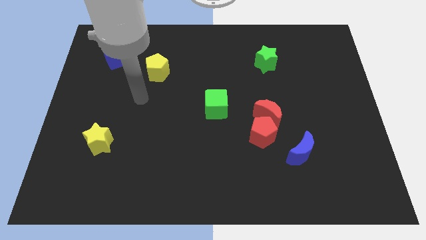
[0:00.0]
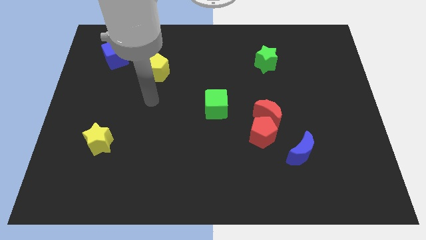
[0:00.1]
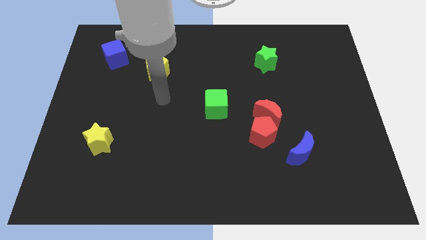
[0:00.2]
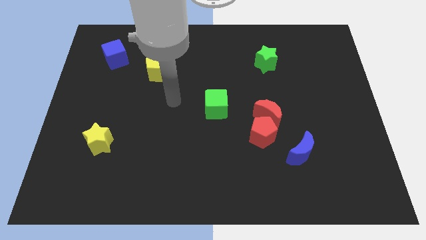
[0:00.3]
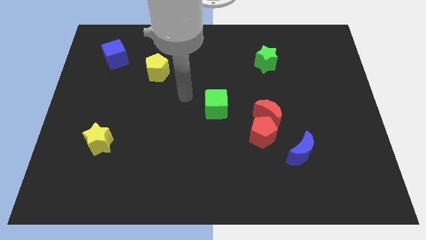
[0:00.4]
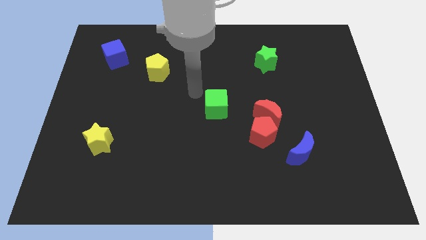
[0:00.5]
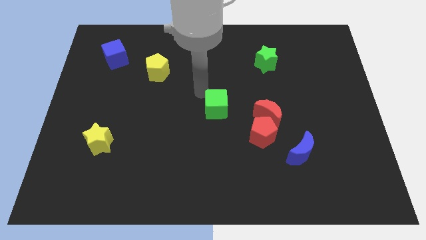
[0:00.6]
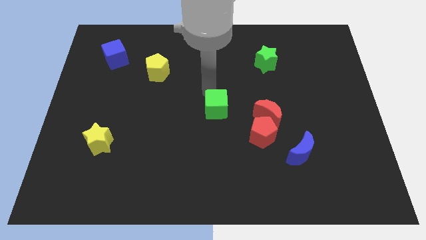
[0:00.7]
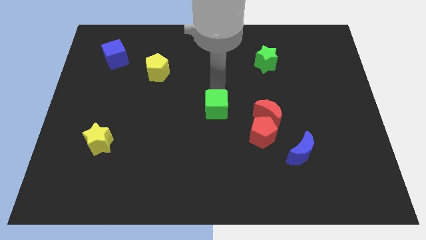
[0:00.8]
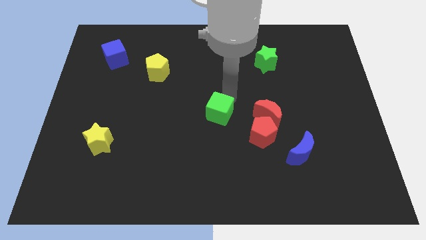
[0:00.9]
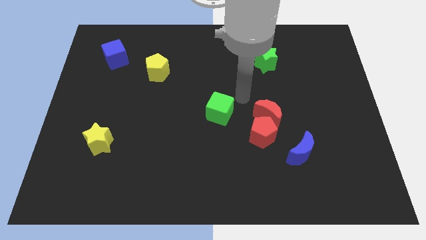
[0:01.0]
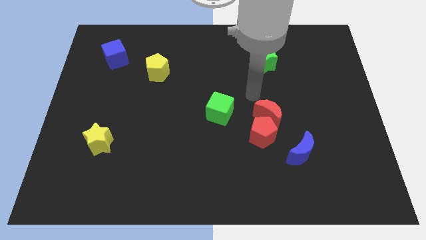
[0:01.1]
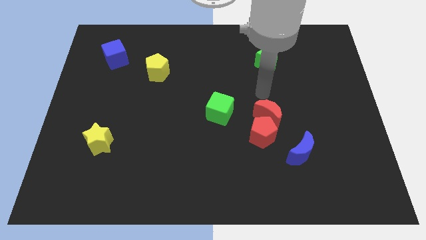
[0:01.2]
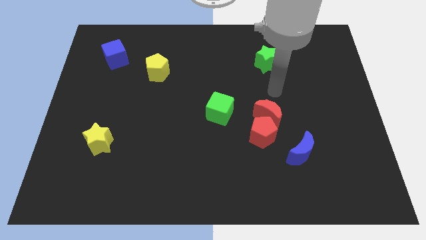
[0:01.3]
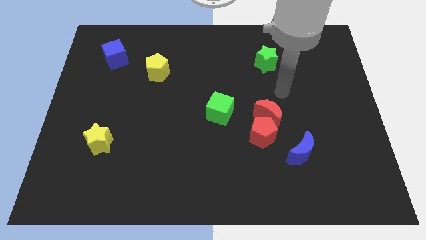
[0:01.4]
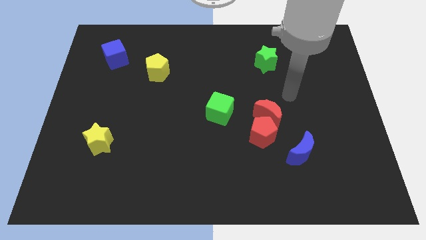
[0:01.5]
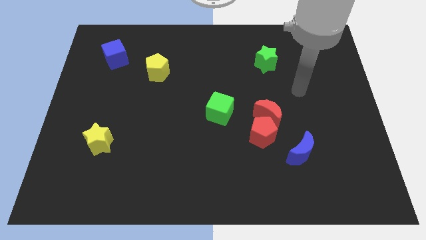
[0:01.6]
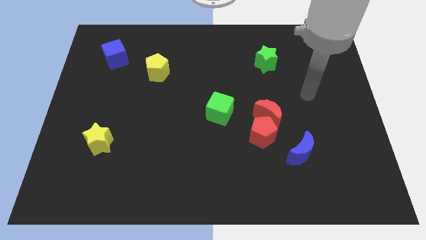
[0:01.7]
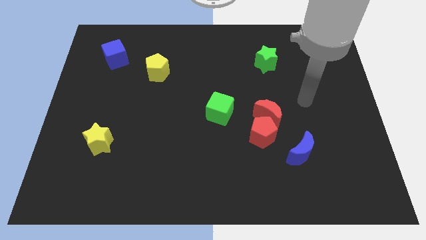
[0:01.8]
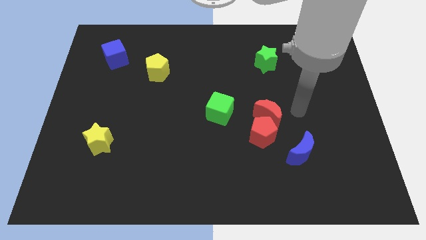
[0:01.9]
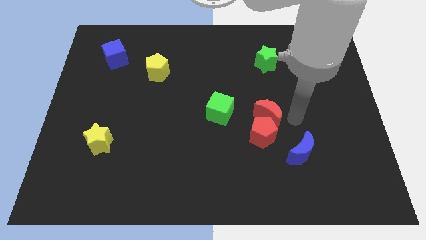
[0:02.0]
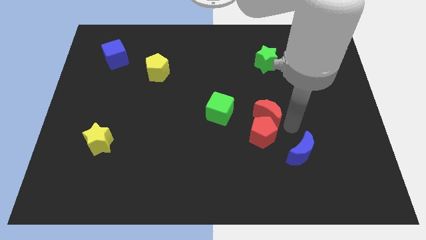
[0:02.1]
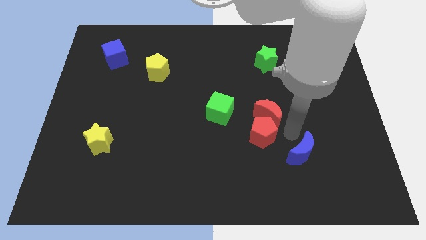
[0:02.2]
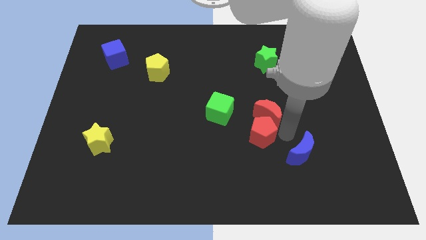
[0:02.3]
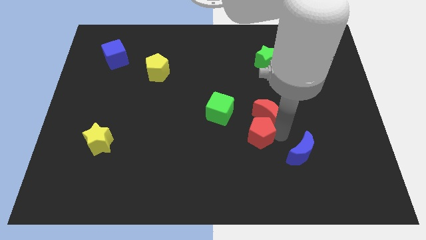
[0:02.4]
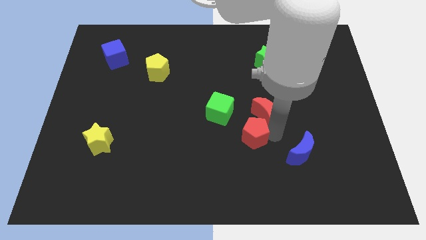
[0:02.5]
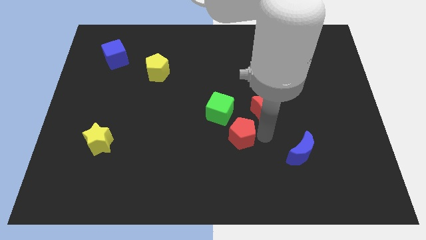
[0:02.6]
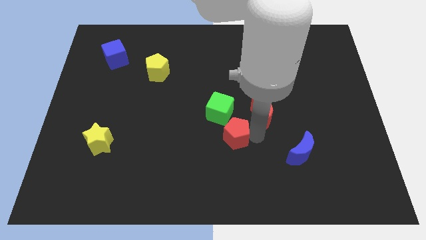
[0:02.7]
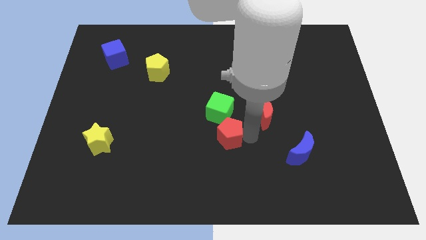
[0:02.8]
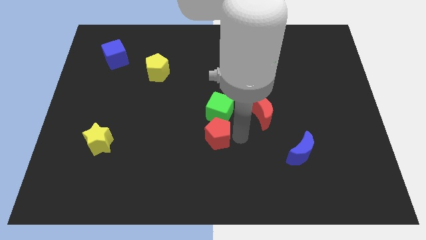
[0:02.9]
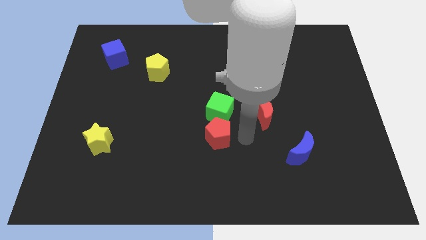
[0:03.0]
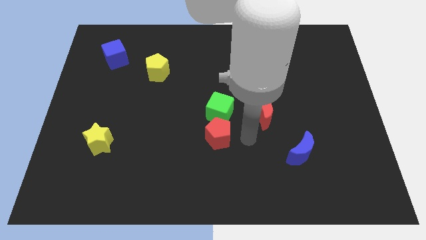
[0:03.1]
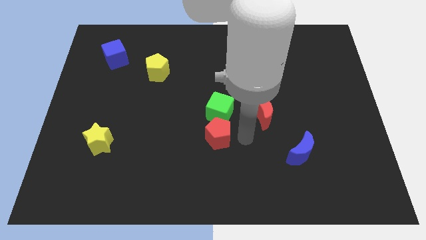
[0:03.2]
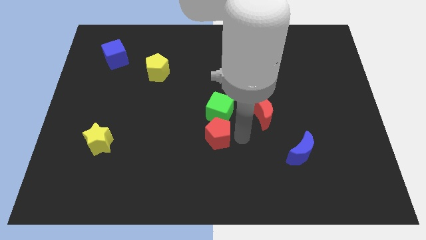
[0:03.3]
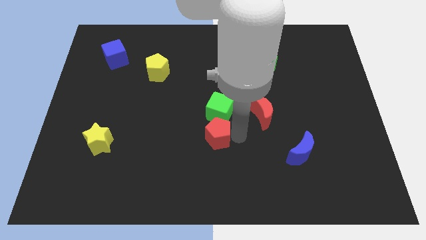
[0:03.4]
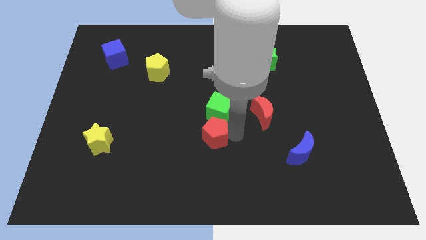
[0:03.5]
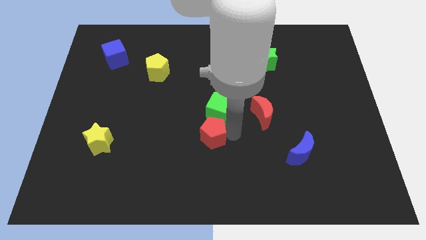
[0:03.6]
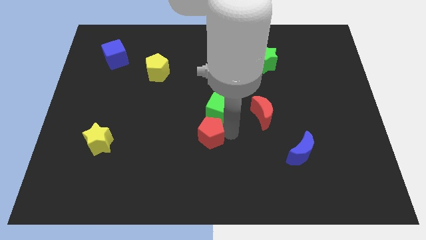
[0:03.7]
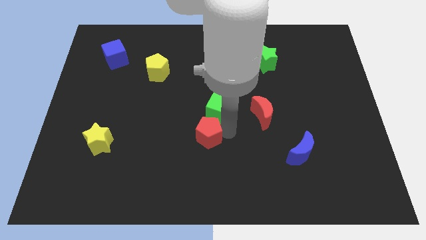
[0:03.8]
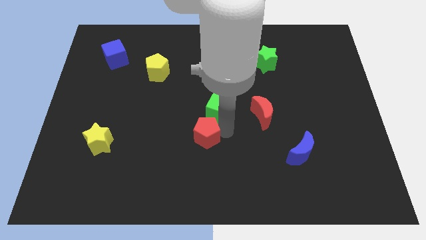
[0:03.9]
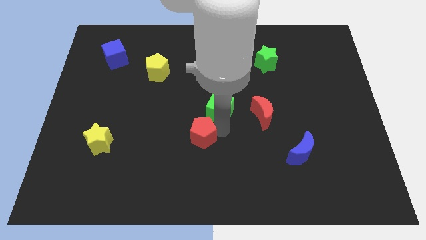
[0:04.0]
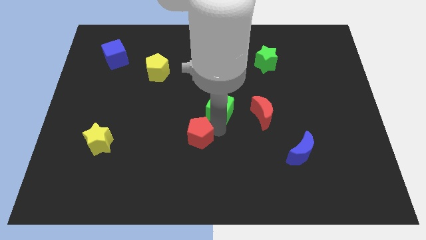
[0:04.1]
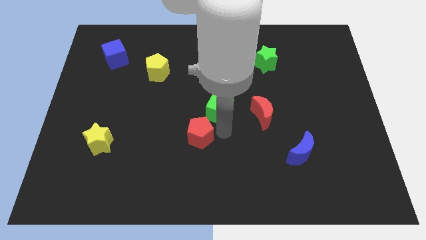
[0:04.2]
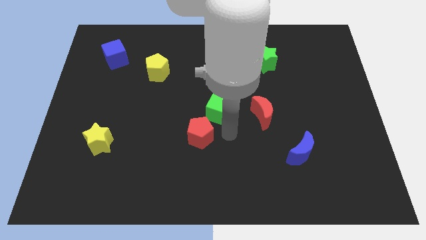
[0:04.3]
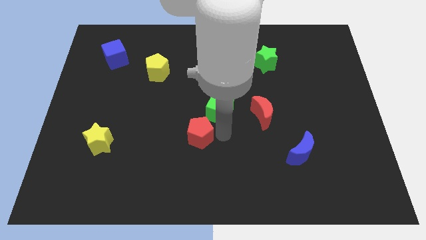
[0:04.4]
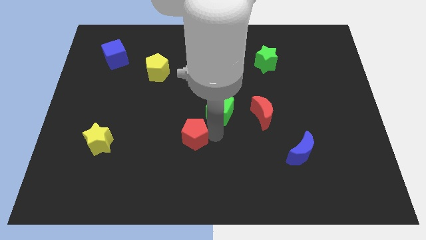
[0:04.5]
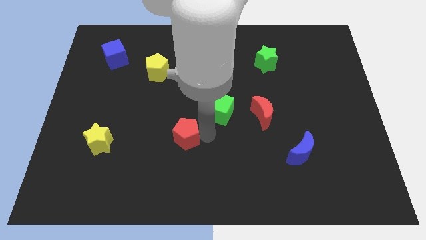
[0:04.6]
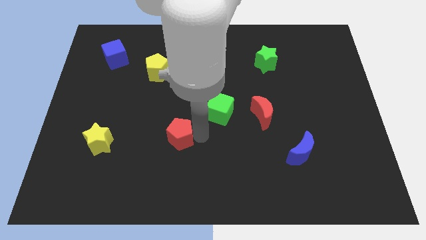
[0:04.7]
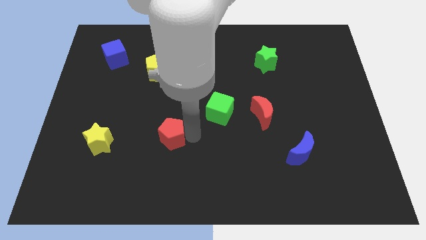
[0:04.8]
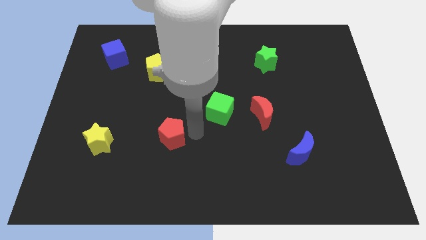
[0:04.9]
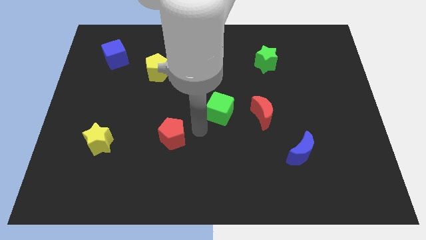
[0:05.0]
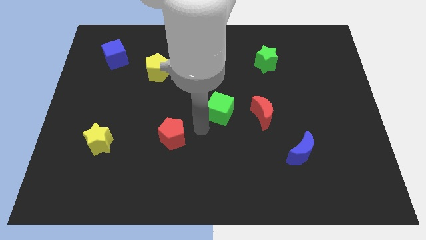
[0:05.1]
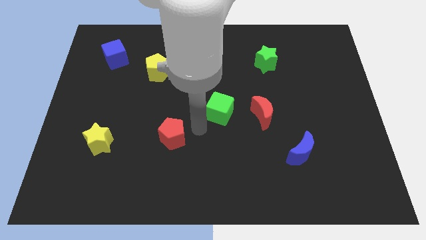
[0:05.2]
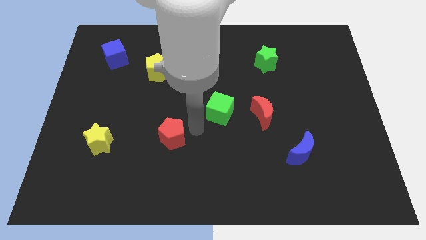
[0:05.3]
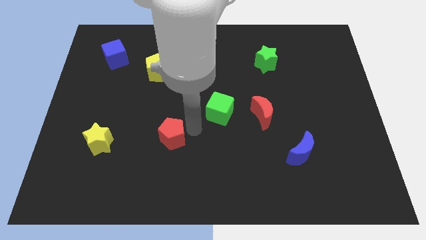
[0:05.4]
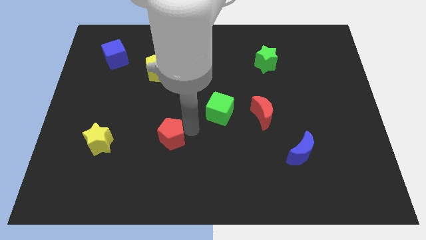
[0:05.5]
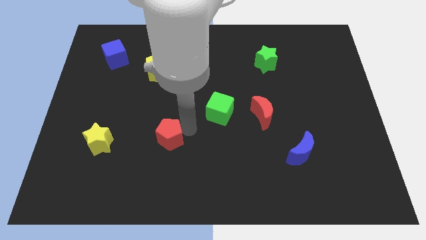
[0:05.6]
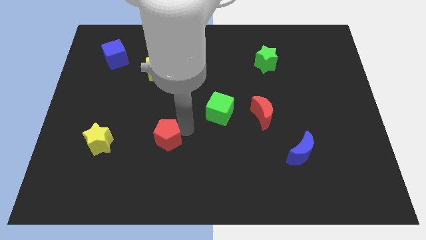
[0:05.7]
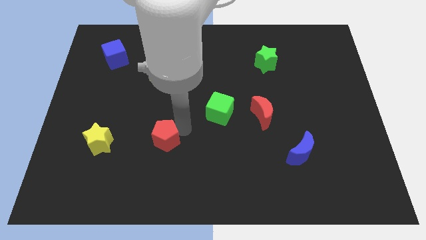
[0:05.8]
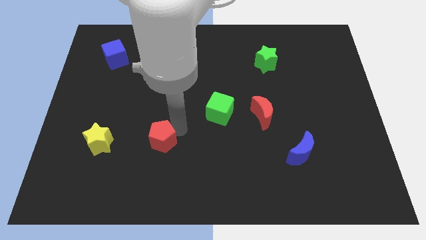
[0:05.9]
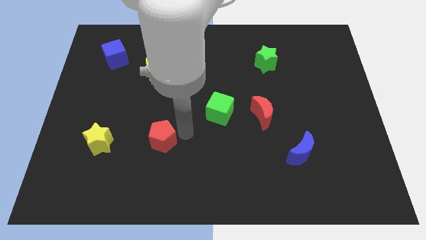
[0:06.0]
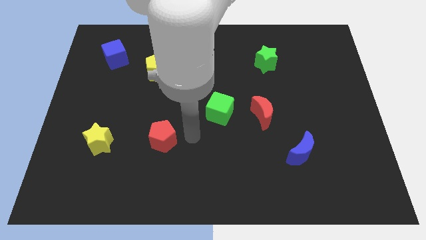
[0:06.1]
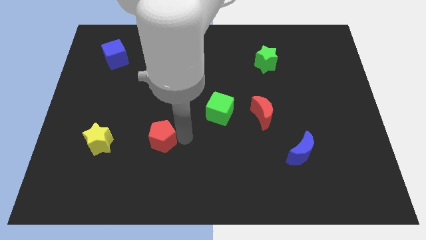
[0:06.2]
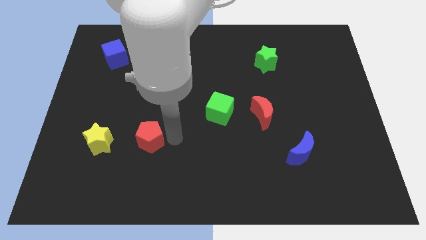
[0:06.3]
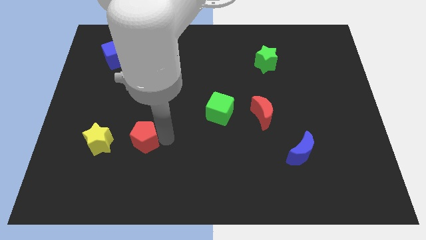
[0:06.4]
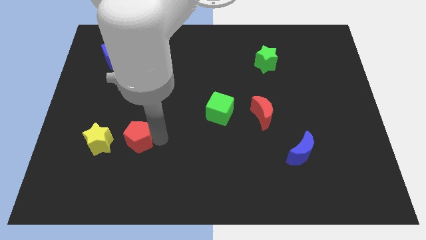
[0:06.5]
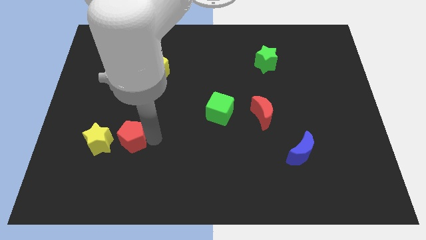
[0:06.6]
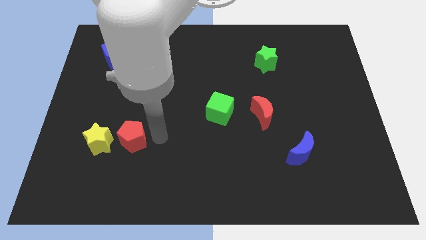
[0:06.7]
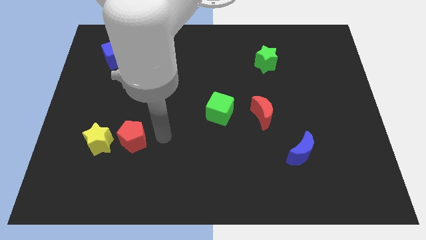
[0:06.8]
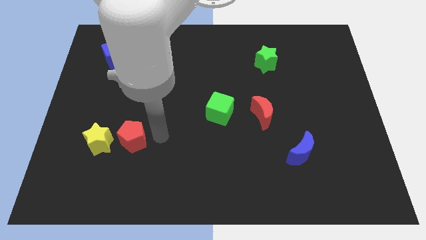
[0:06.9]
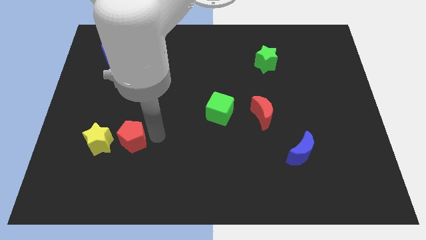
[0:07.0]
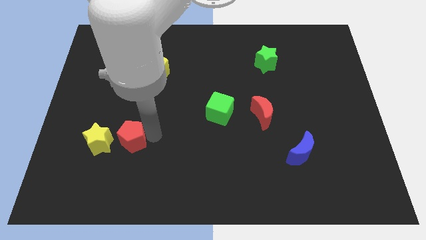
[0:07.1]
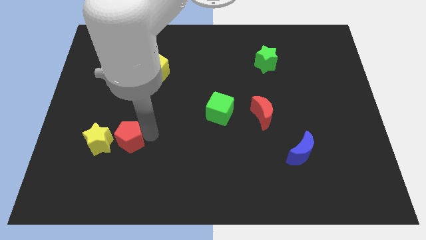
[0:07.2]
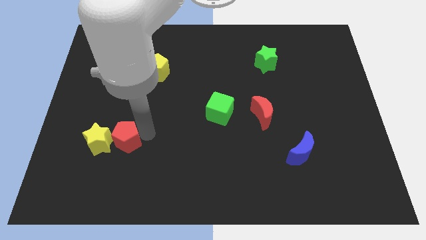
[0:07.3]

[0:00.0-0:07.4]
put the red pentagon next to the yellow star
